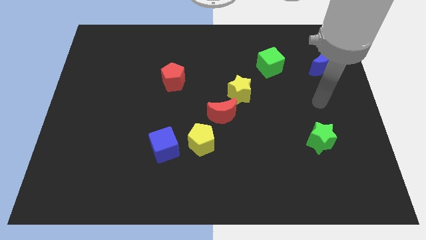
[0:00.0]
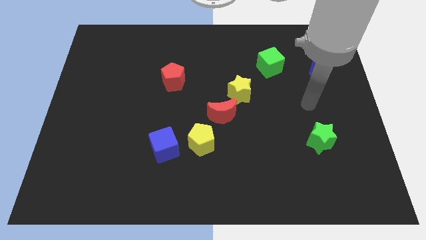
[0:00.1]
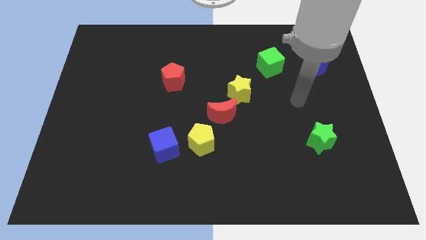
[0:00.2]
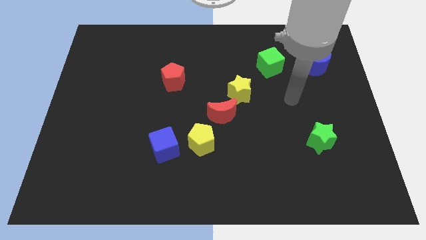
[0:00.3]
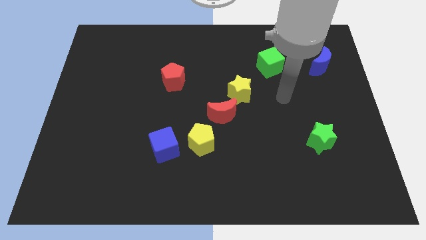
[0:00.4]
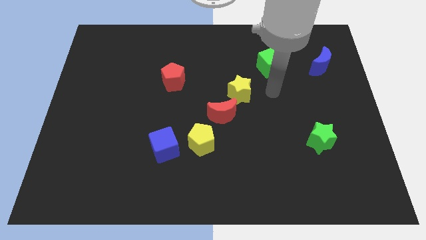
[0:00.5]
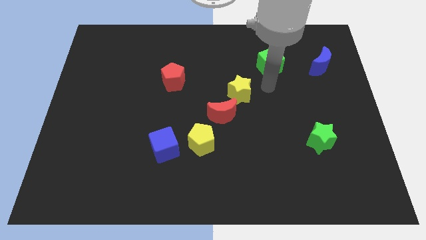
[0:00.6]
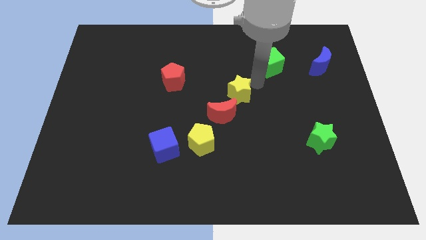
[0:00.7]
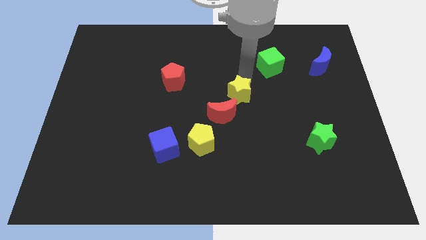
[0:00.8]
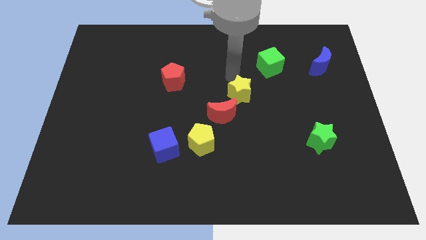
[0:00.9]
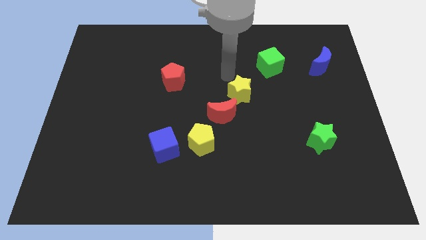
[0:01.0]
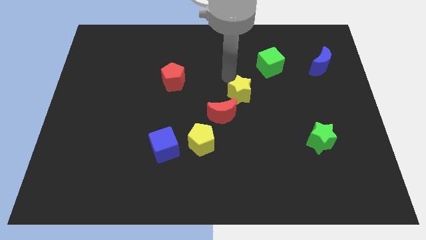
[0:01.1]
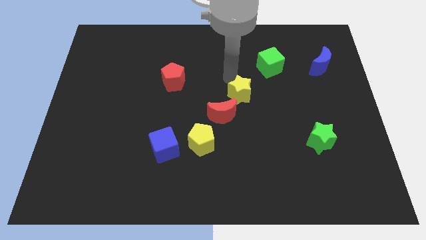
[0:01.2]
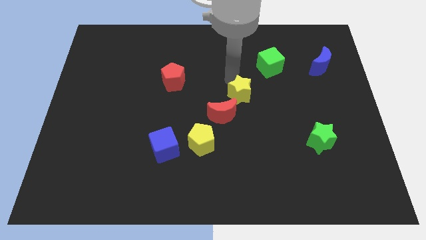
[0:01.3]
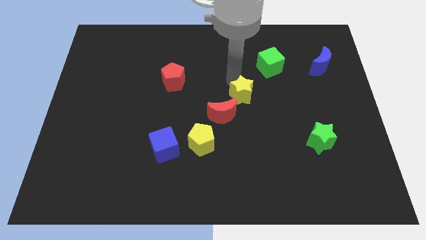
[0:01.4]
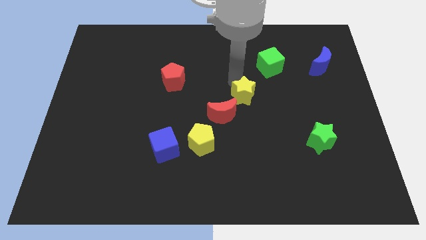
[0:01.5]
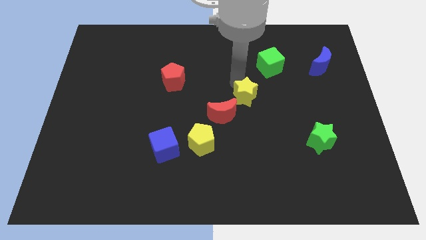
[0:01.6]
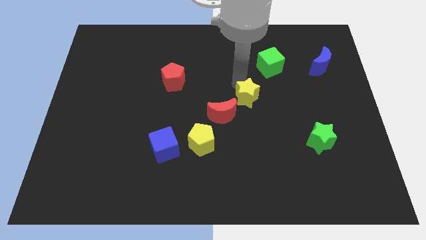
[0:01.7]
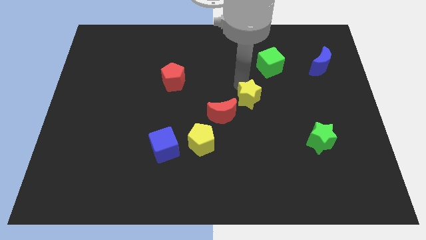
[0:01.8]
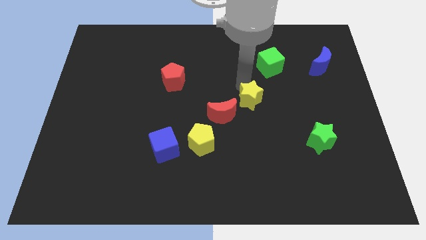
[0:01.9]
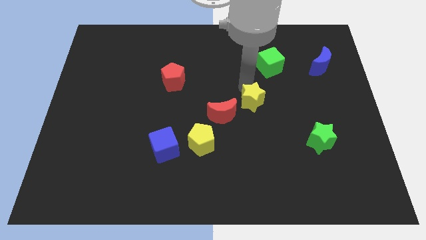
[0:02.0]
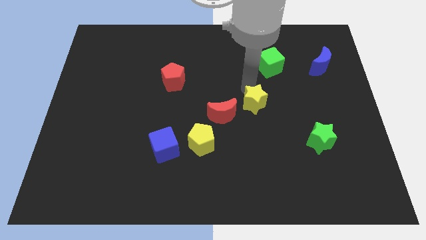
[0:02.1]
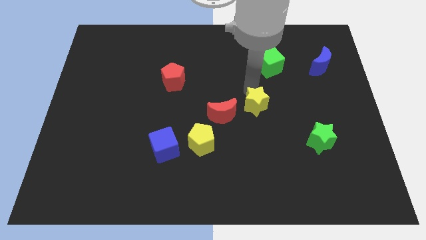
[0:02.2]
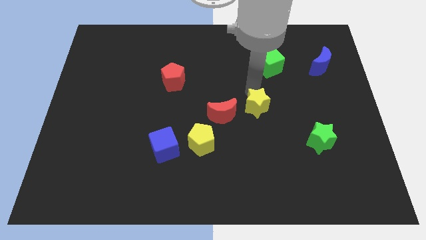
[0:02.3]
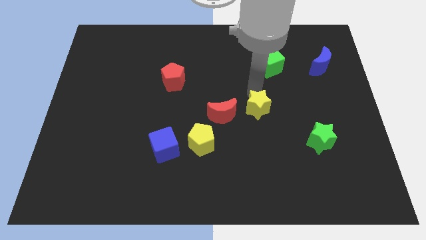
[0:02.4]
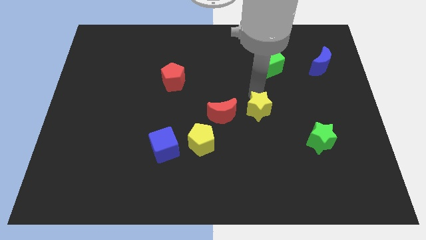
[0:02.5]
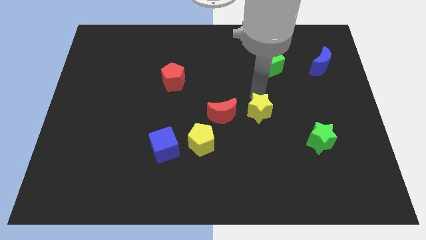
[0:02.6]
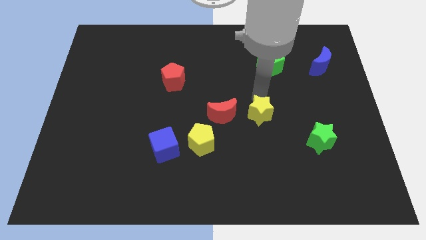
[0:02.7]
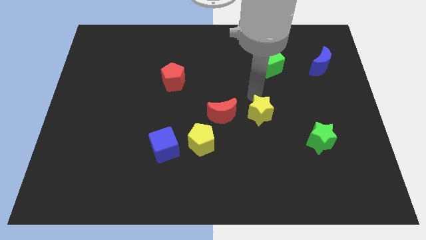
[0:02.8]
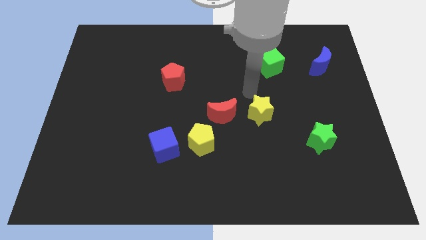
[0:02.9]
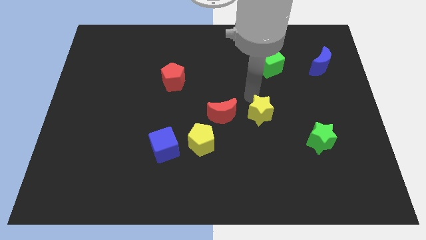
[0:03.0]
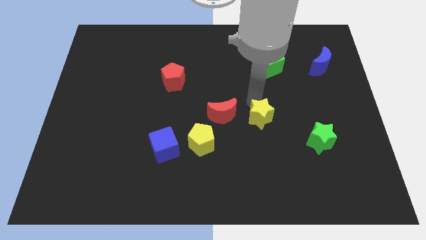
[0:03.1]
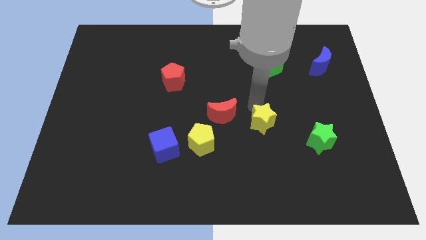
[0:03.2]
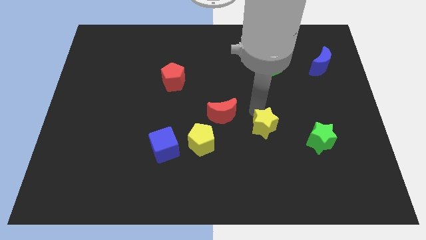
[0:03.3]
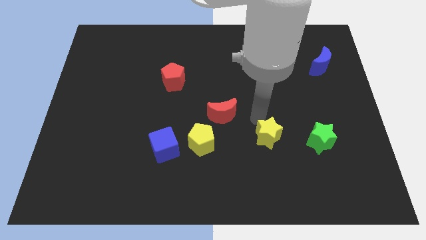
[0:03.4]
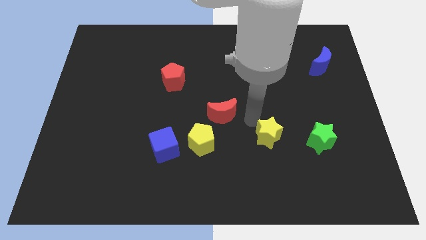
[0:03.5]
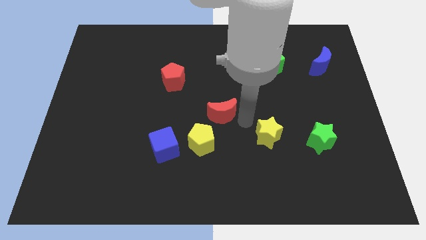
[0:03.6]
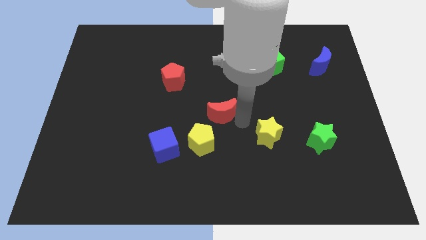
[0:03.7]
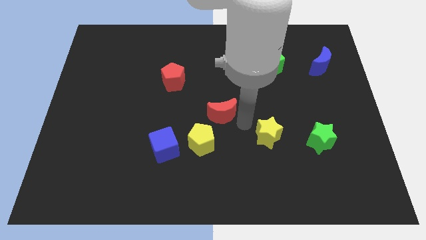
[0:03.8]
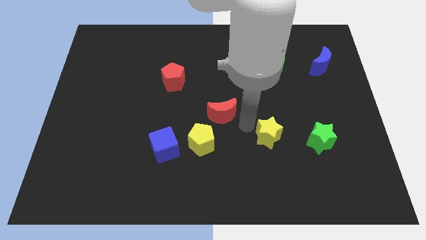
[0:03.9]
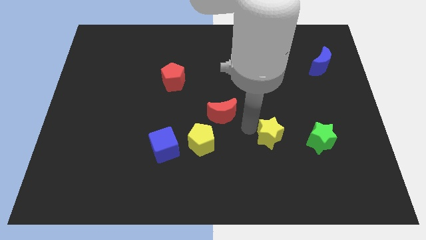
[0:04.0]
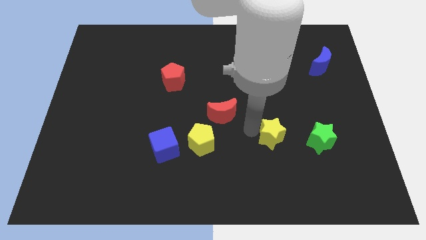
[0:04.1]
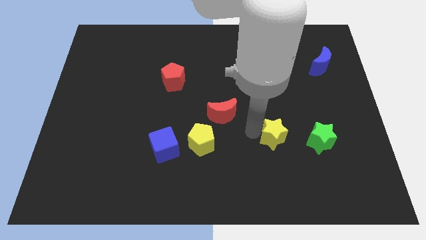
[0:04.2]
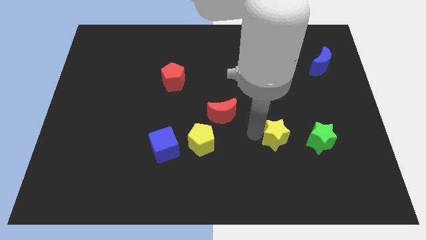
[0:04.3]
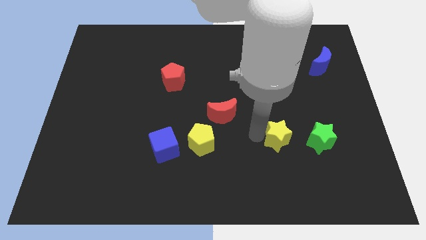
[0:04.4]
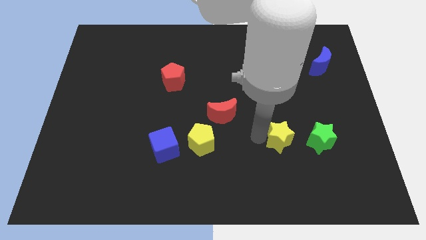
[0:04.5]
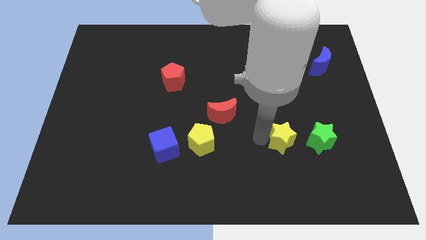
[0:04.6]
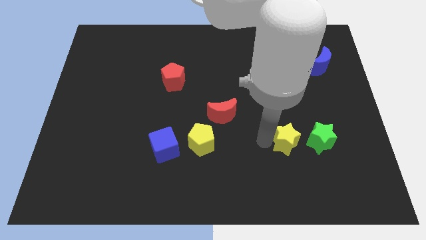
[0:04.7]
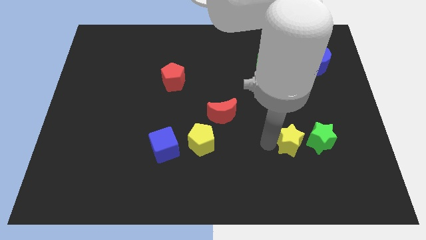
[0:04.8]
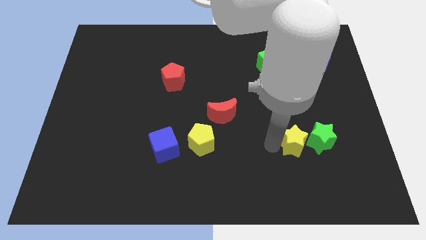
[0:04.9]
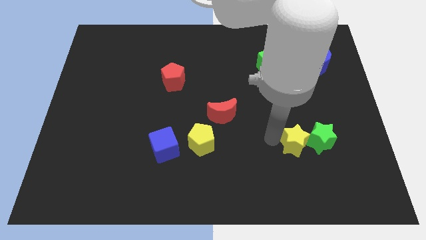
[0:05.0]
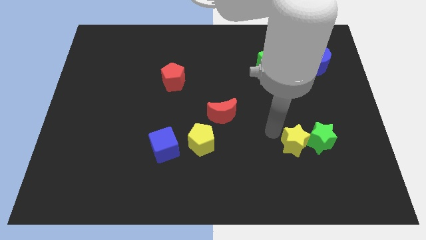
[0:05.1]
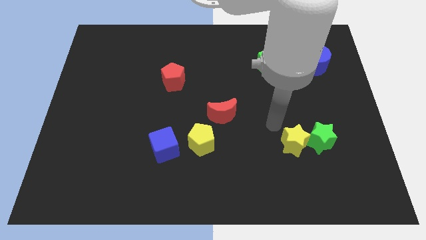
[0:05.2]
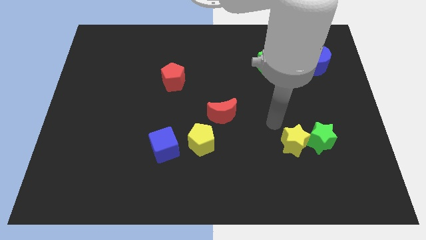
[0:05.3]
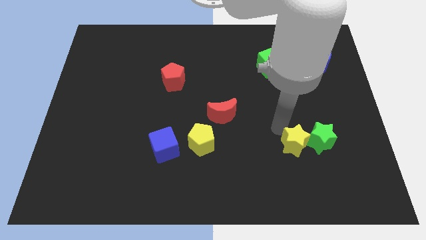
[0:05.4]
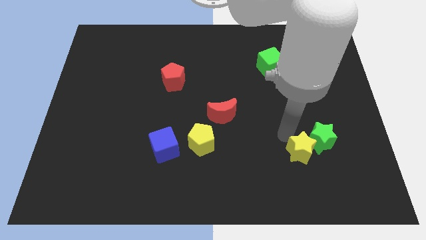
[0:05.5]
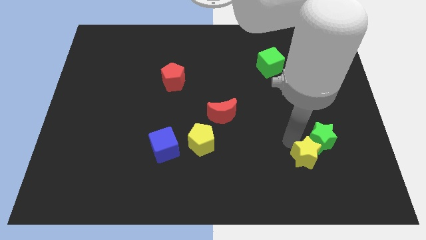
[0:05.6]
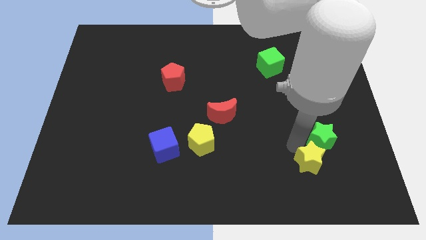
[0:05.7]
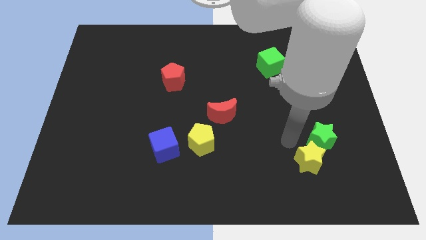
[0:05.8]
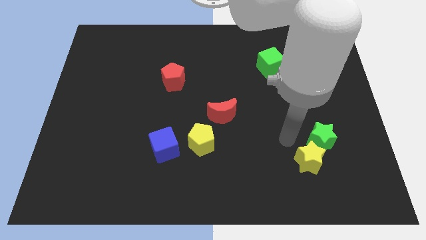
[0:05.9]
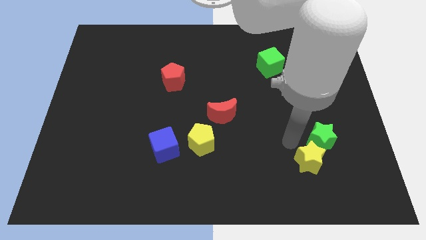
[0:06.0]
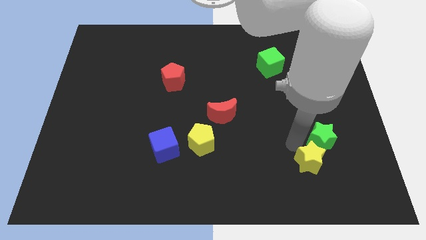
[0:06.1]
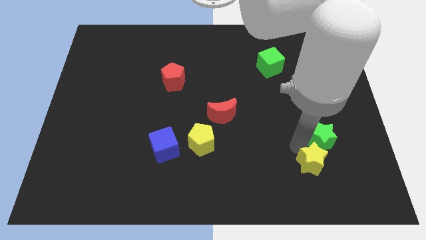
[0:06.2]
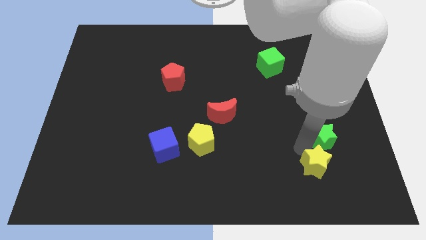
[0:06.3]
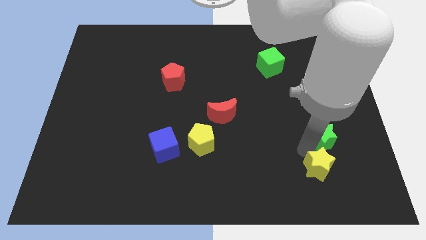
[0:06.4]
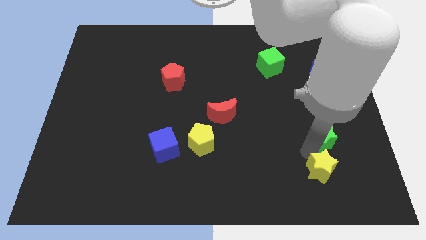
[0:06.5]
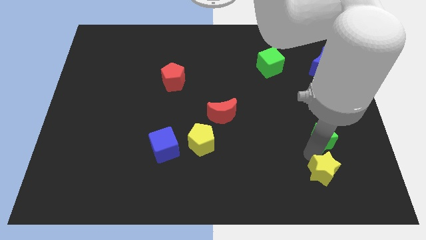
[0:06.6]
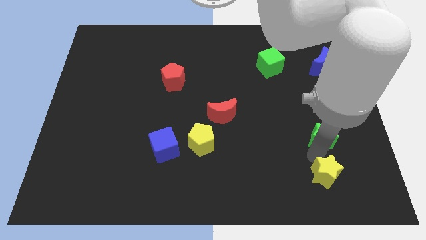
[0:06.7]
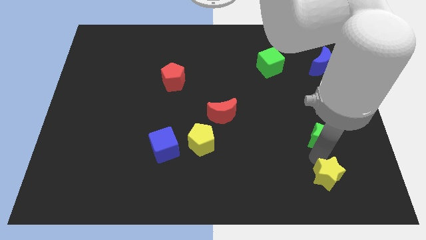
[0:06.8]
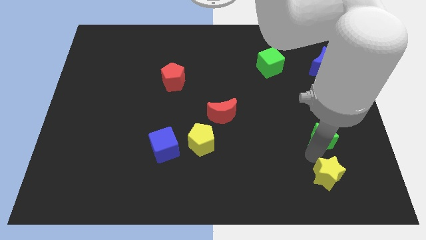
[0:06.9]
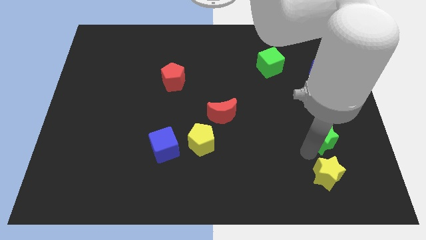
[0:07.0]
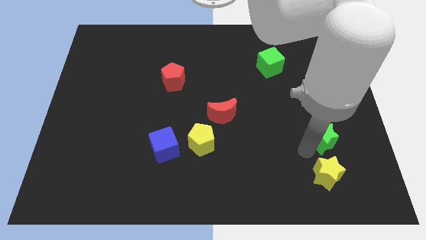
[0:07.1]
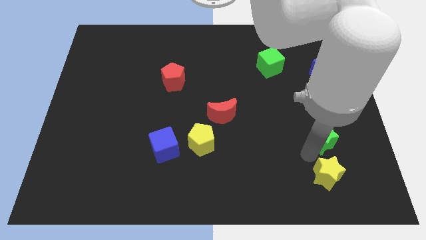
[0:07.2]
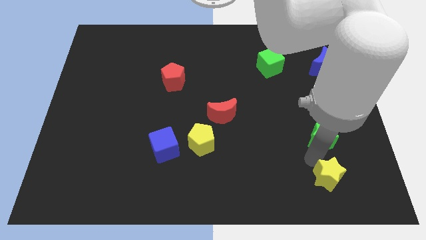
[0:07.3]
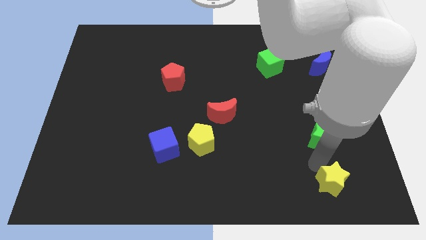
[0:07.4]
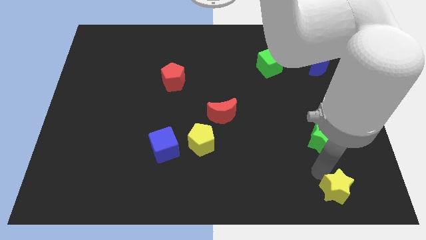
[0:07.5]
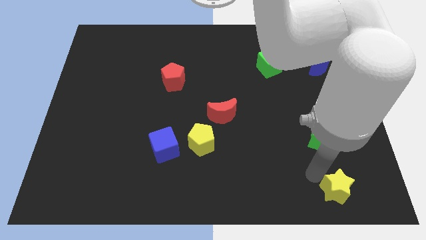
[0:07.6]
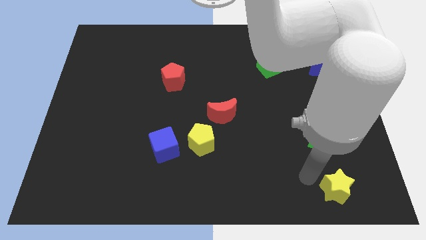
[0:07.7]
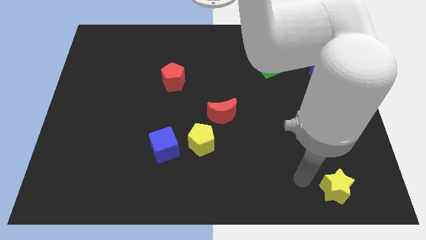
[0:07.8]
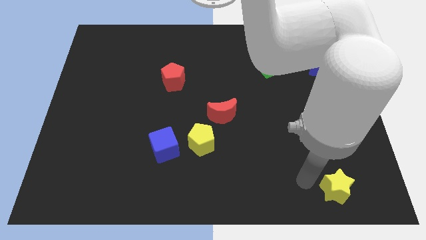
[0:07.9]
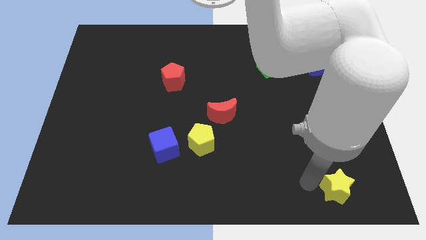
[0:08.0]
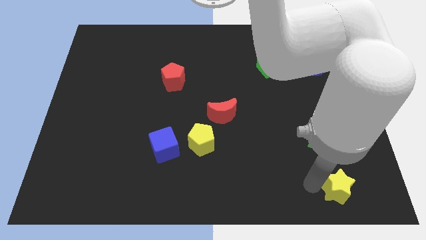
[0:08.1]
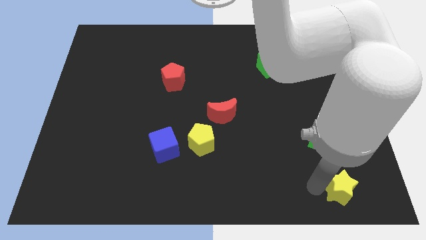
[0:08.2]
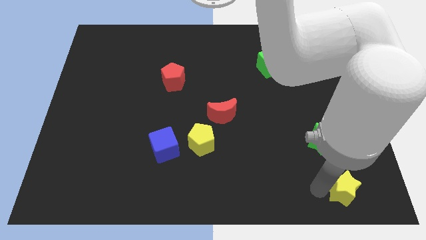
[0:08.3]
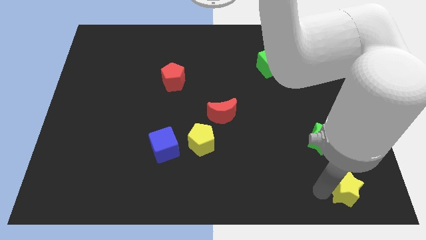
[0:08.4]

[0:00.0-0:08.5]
slide the yellow star to the bottom right of the board
